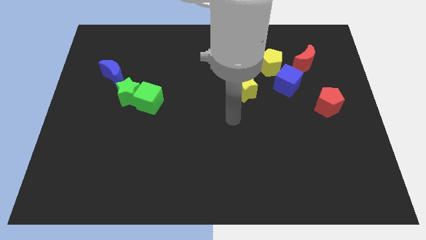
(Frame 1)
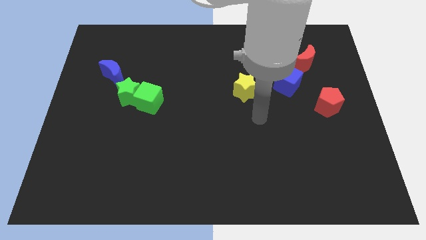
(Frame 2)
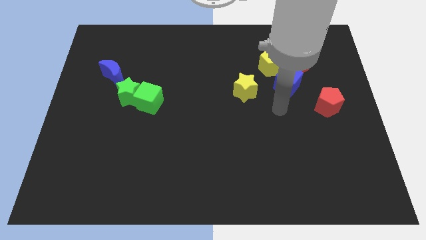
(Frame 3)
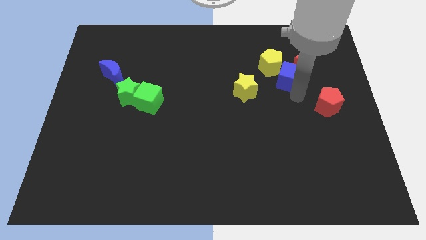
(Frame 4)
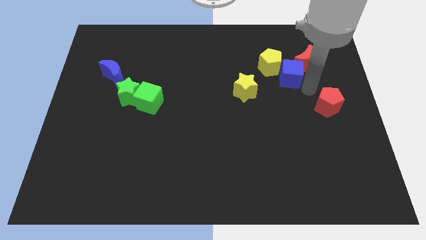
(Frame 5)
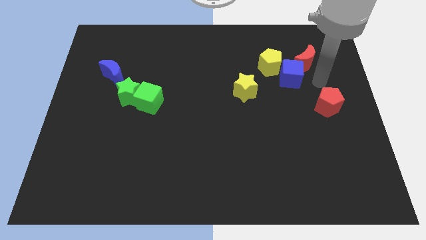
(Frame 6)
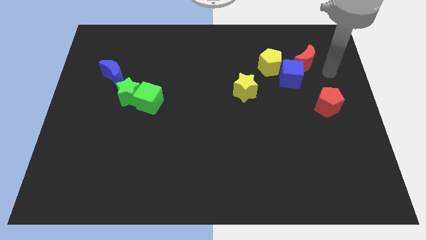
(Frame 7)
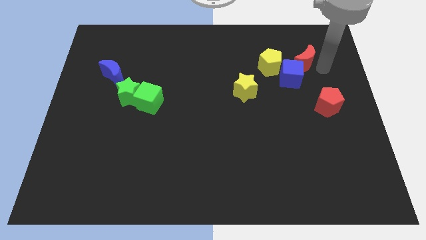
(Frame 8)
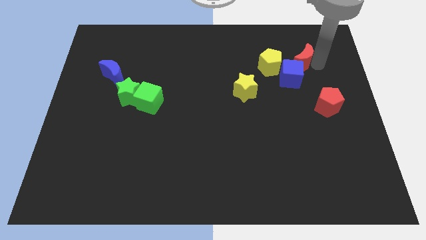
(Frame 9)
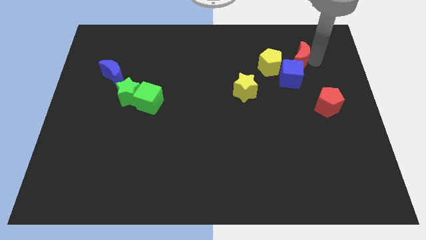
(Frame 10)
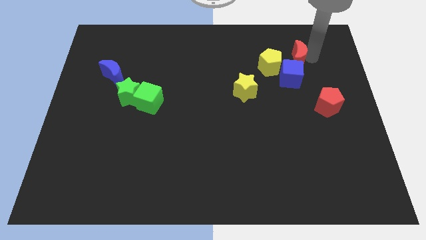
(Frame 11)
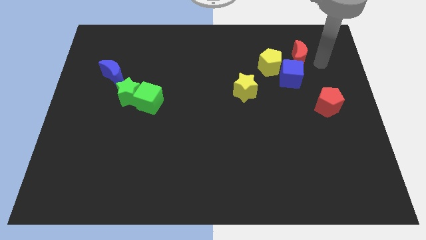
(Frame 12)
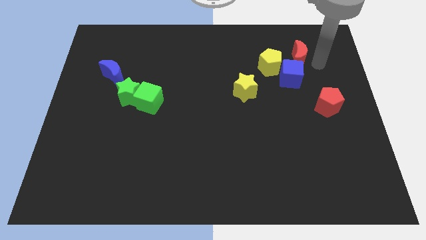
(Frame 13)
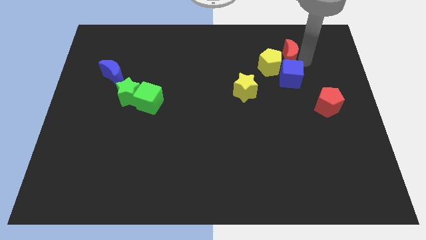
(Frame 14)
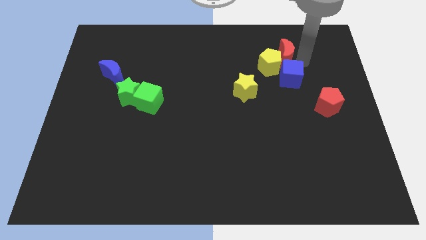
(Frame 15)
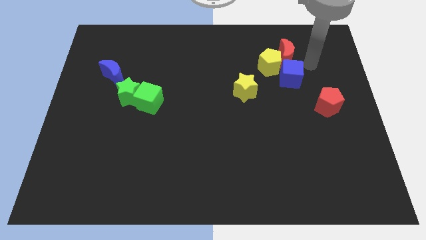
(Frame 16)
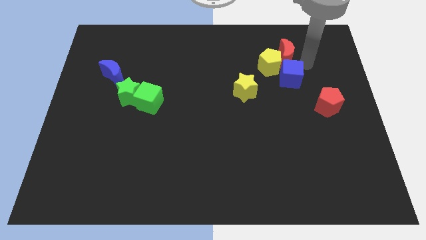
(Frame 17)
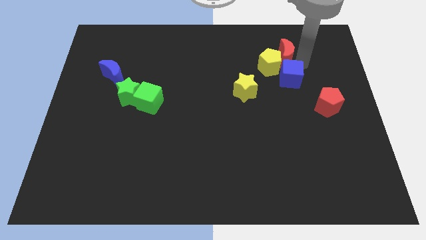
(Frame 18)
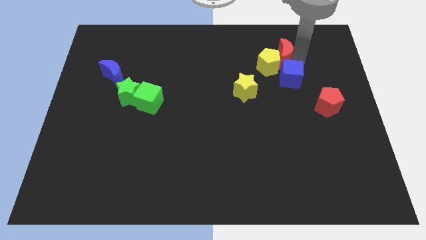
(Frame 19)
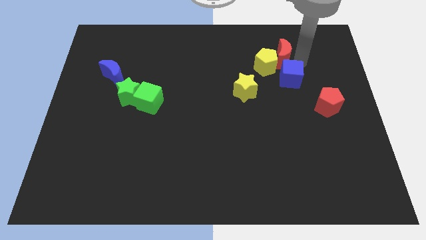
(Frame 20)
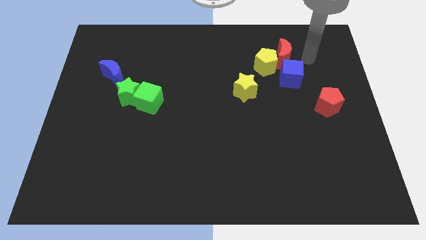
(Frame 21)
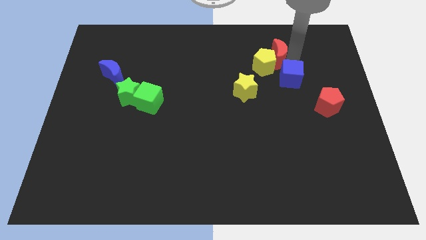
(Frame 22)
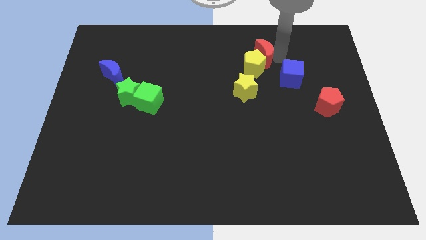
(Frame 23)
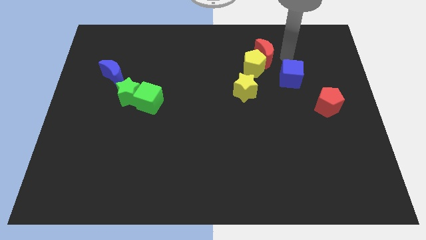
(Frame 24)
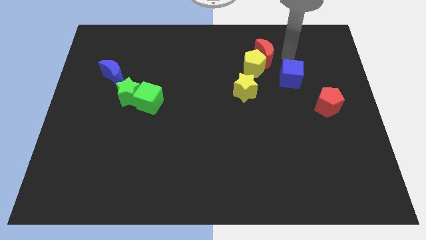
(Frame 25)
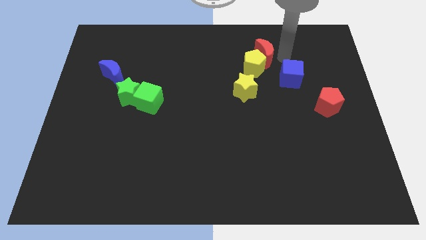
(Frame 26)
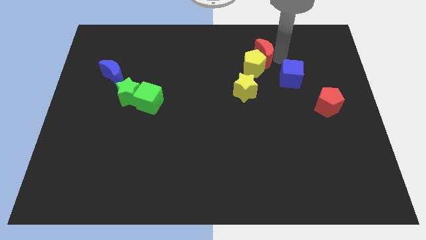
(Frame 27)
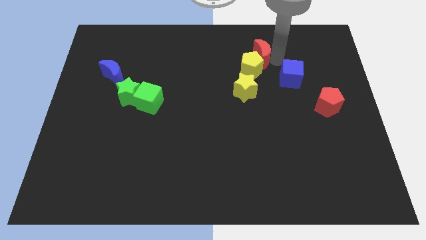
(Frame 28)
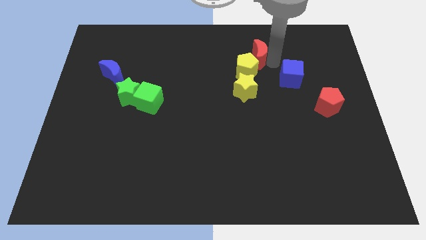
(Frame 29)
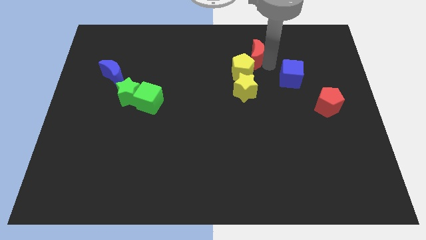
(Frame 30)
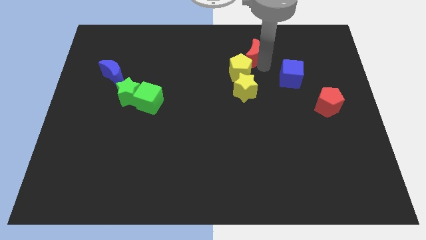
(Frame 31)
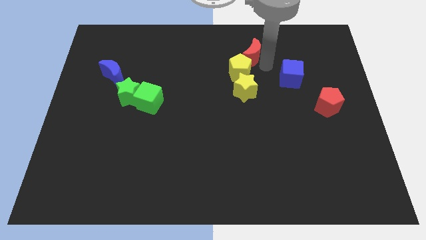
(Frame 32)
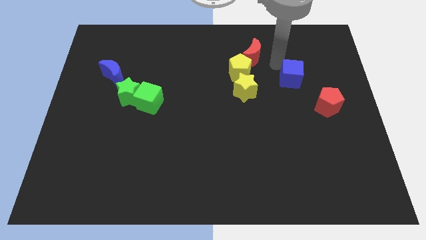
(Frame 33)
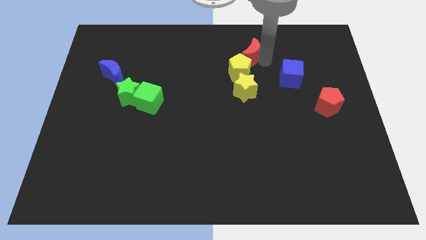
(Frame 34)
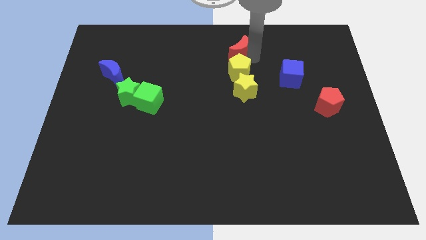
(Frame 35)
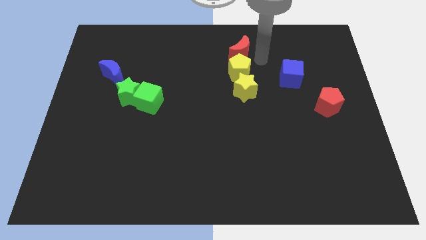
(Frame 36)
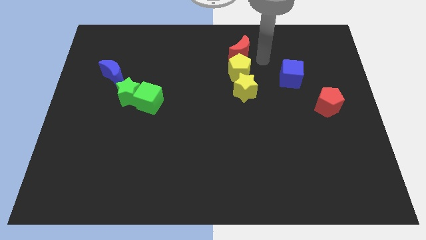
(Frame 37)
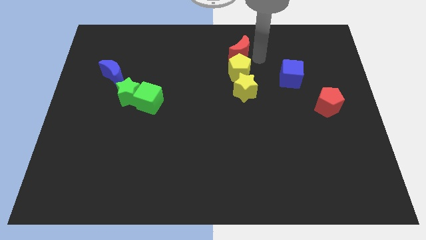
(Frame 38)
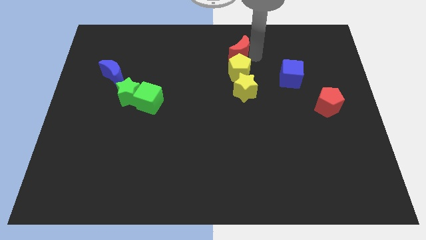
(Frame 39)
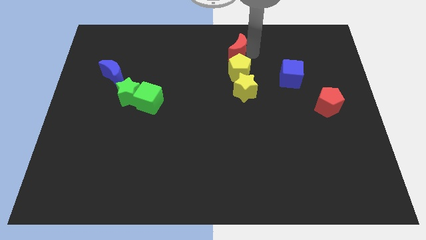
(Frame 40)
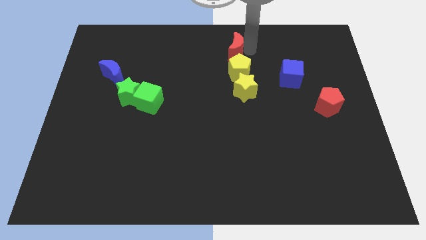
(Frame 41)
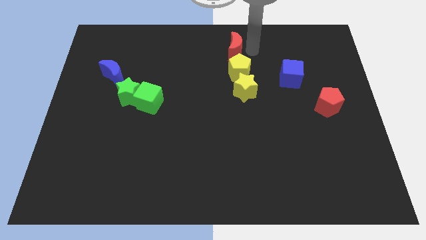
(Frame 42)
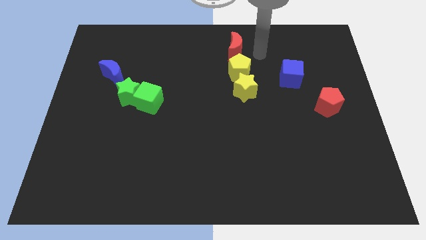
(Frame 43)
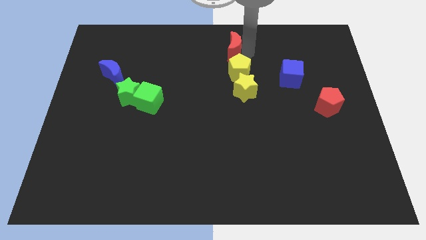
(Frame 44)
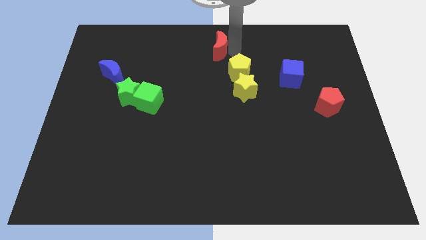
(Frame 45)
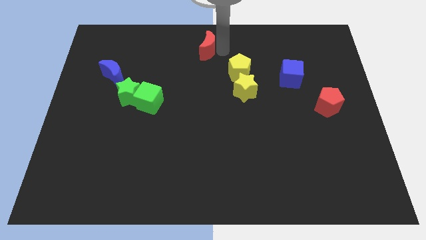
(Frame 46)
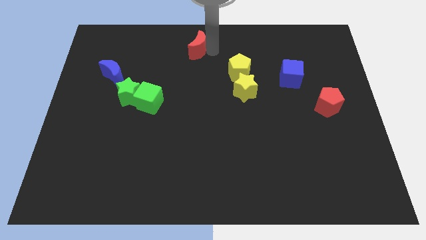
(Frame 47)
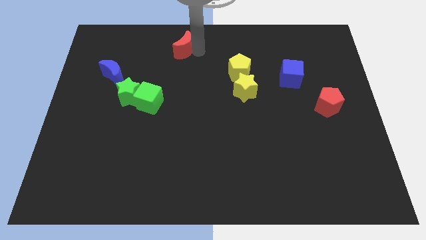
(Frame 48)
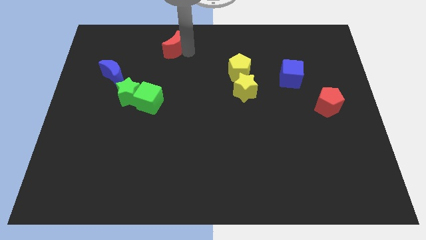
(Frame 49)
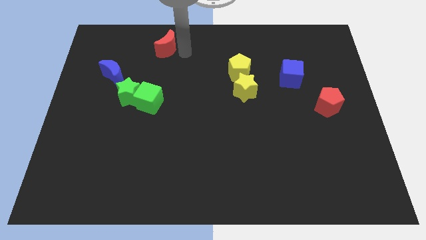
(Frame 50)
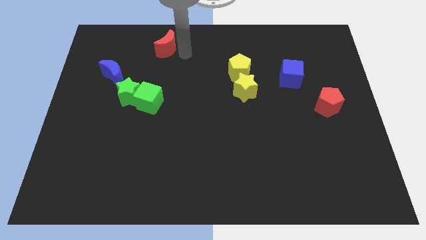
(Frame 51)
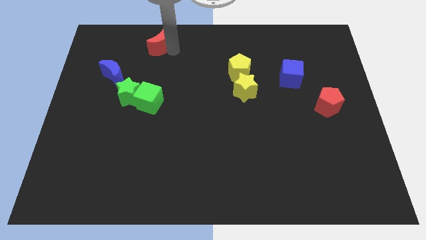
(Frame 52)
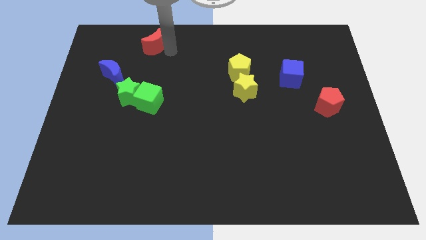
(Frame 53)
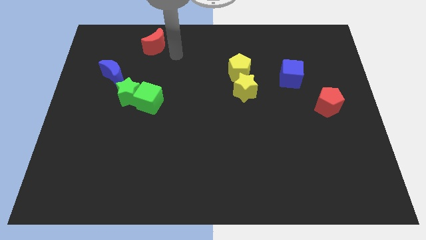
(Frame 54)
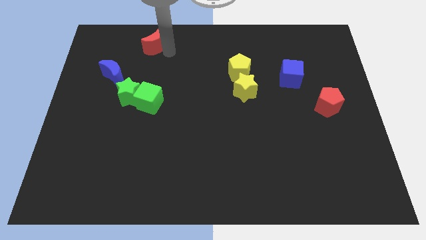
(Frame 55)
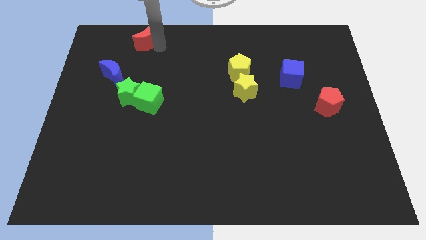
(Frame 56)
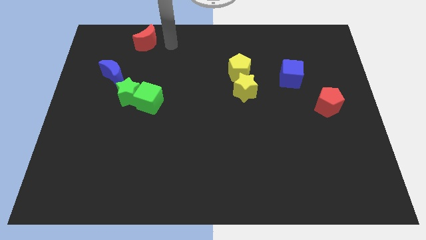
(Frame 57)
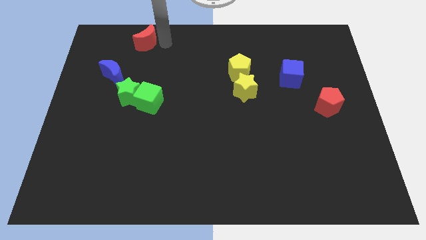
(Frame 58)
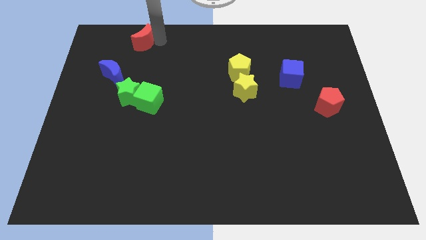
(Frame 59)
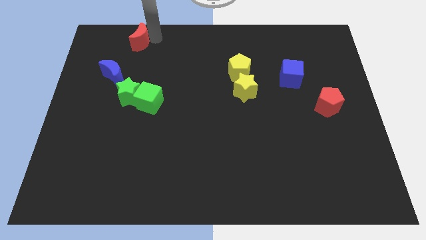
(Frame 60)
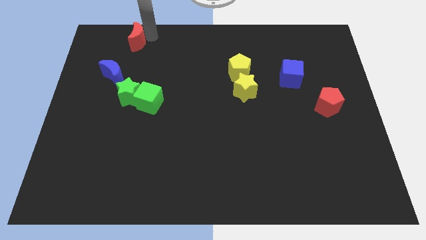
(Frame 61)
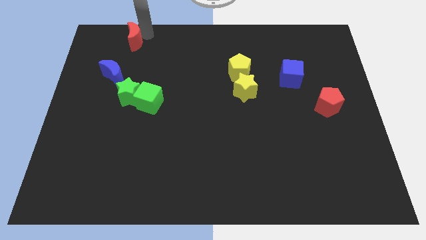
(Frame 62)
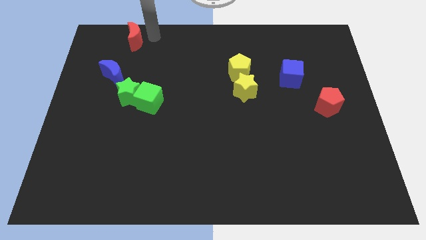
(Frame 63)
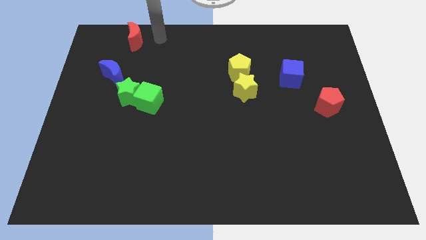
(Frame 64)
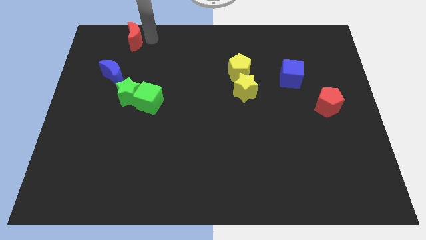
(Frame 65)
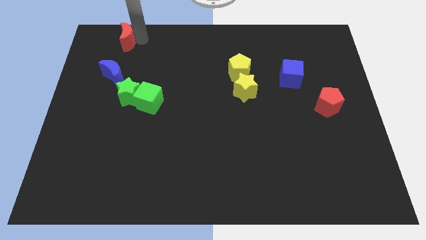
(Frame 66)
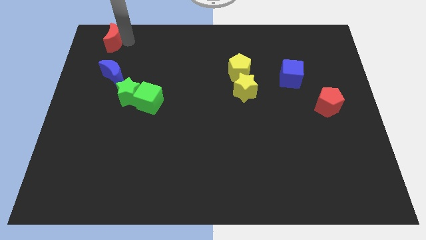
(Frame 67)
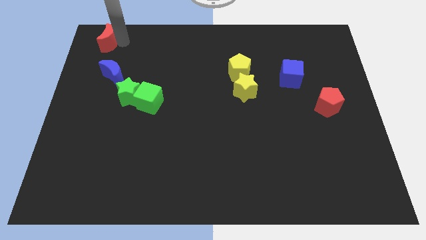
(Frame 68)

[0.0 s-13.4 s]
put the red moon to the upper left corner

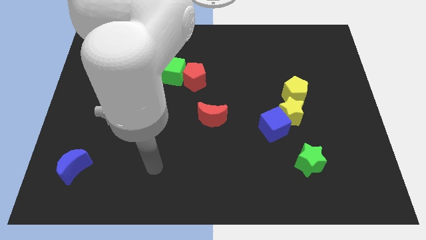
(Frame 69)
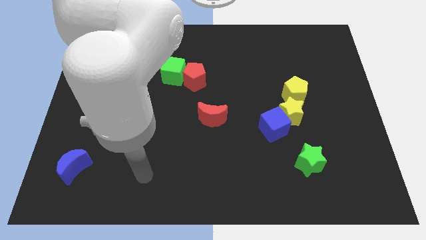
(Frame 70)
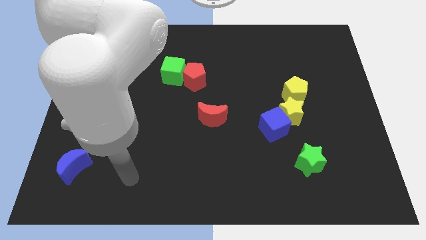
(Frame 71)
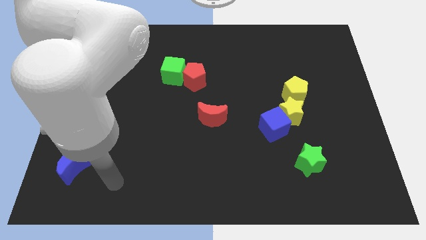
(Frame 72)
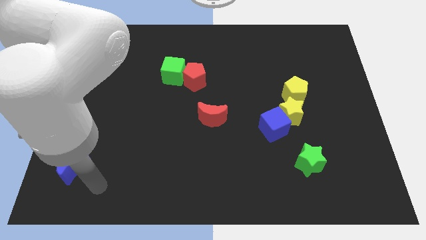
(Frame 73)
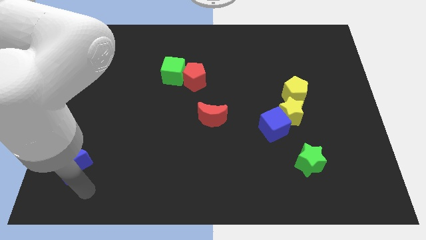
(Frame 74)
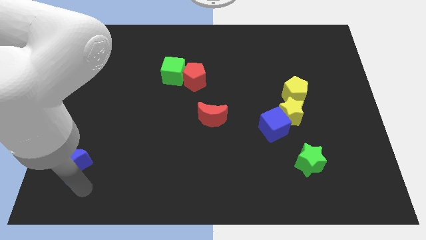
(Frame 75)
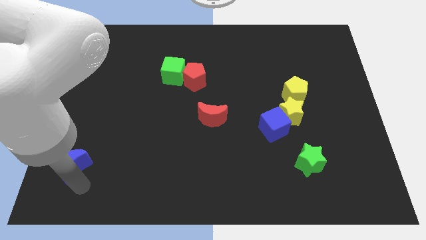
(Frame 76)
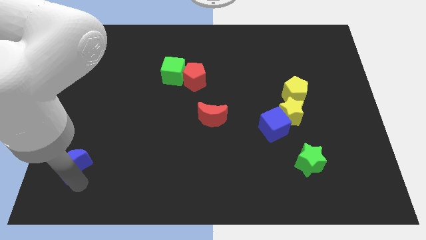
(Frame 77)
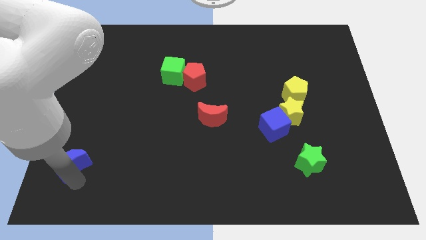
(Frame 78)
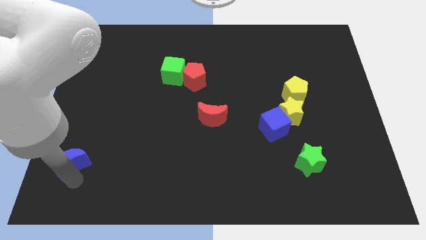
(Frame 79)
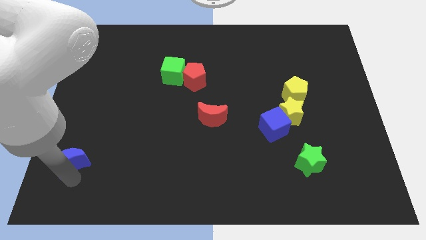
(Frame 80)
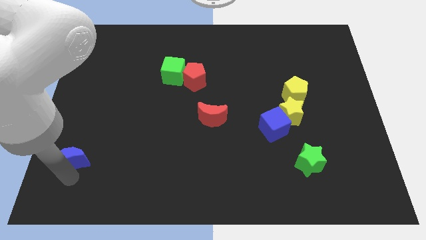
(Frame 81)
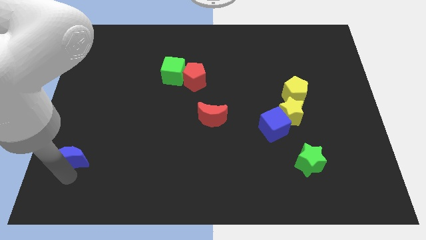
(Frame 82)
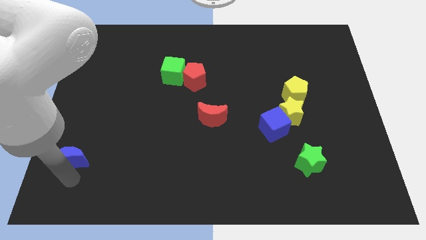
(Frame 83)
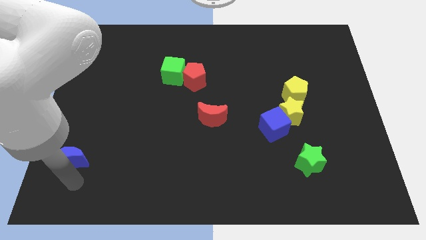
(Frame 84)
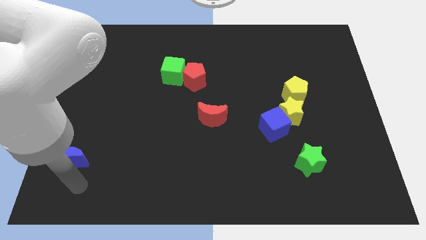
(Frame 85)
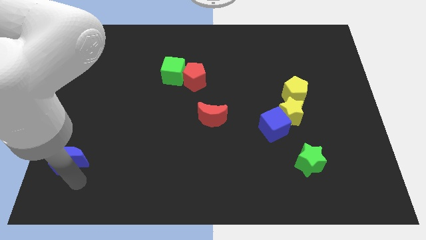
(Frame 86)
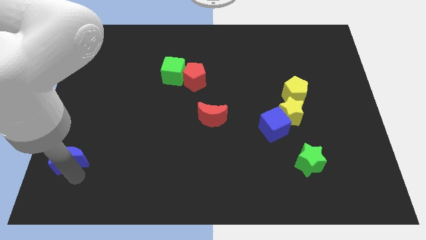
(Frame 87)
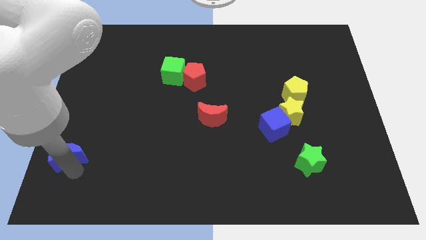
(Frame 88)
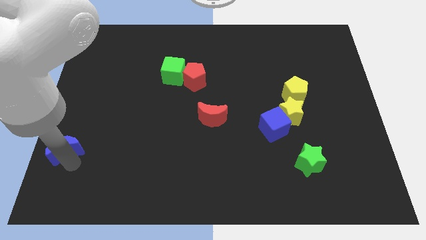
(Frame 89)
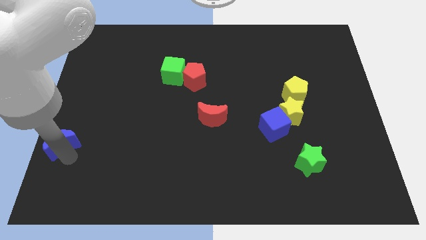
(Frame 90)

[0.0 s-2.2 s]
slide the blue moon to the left side of the board
